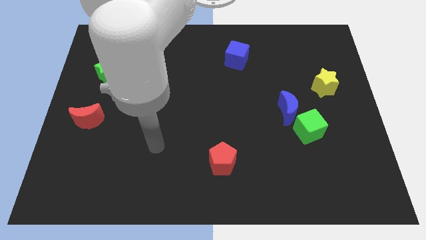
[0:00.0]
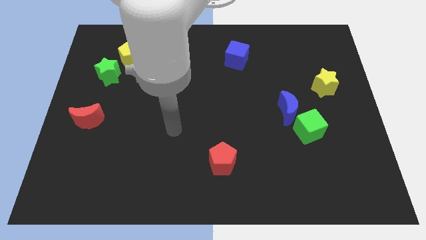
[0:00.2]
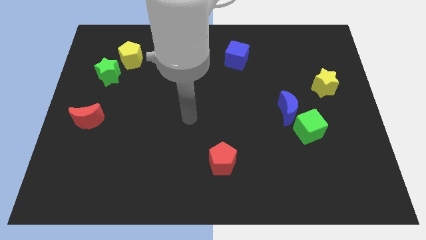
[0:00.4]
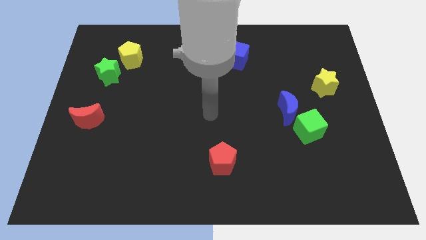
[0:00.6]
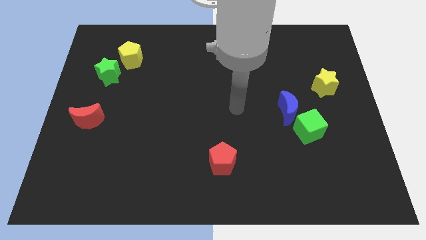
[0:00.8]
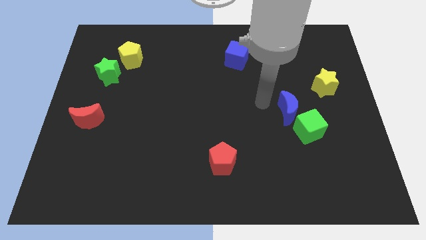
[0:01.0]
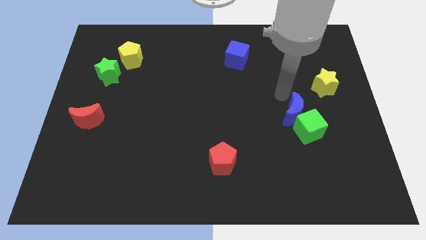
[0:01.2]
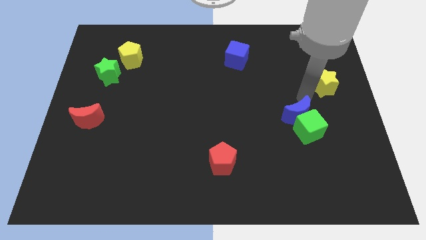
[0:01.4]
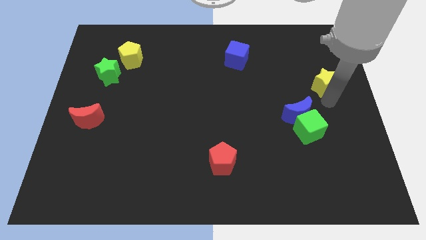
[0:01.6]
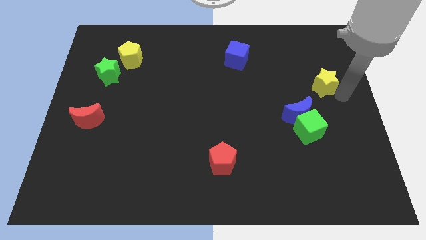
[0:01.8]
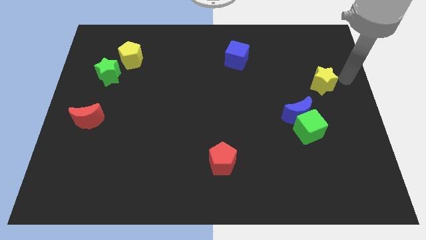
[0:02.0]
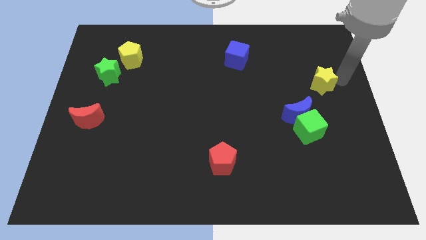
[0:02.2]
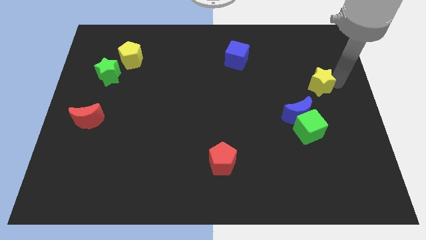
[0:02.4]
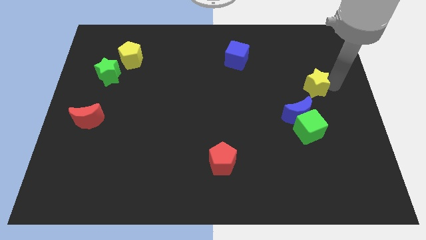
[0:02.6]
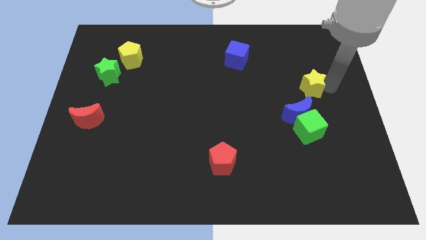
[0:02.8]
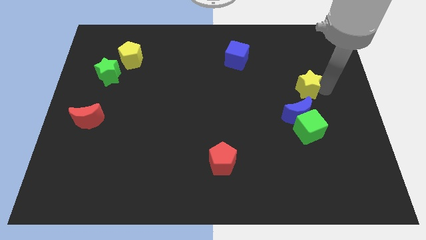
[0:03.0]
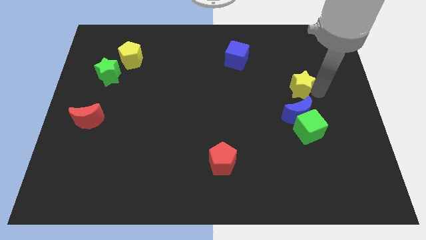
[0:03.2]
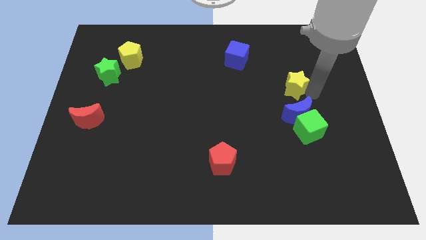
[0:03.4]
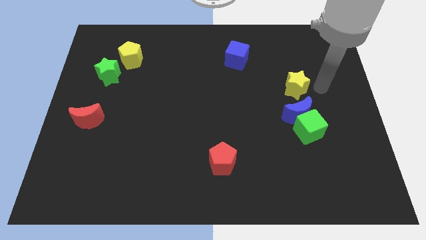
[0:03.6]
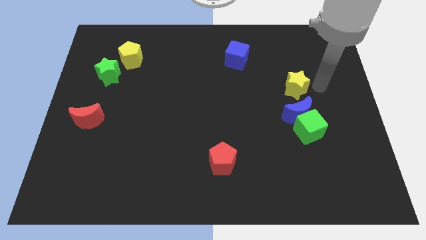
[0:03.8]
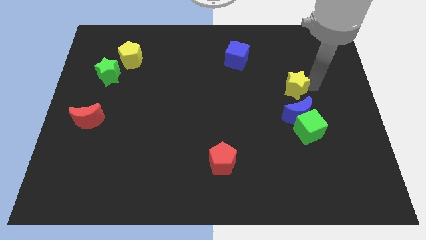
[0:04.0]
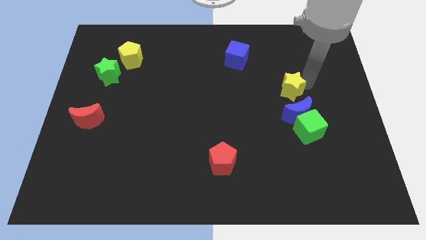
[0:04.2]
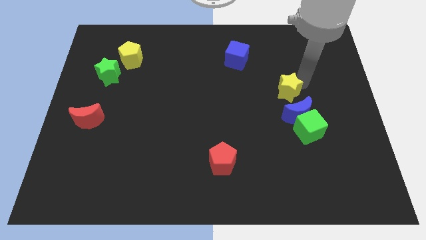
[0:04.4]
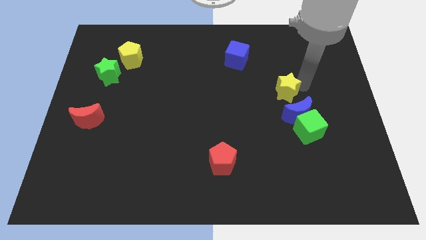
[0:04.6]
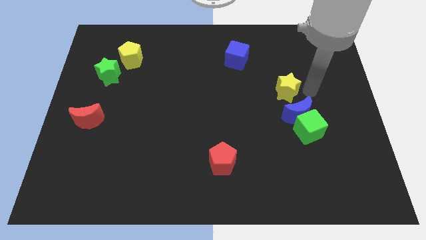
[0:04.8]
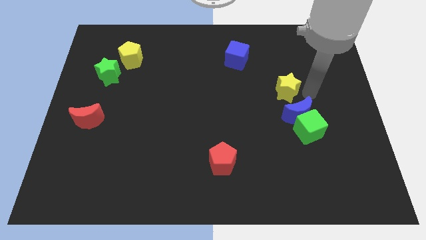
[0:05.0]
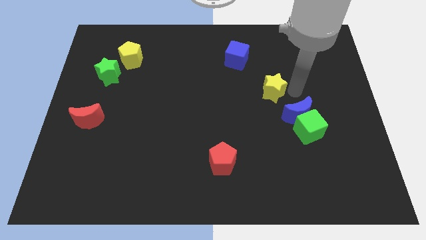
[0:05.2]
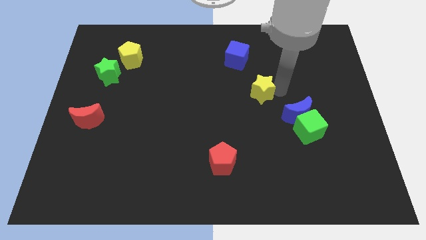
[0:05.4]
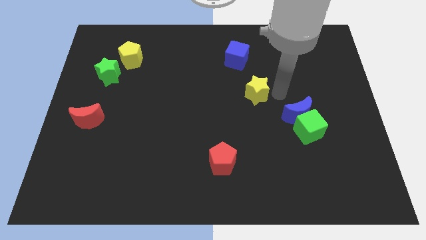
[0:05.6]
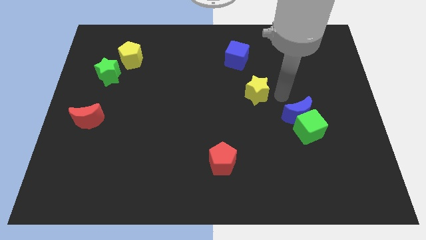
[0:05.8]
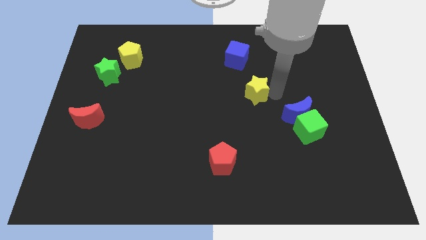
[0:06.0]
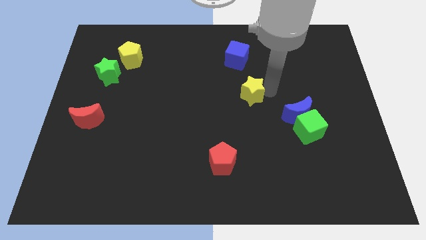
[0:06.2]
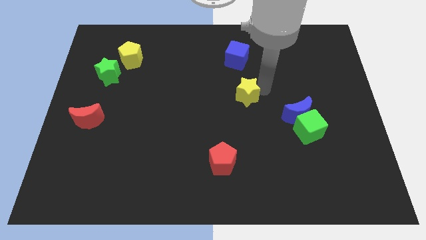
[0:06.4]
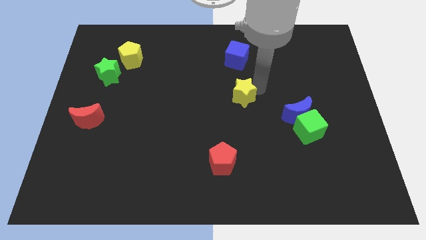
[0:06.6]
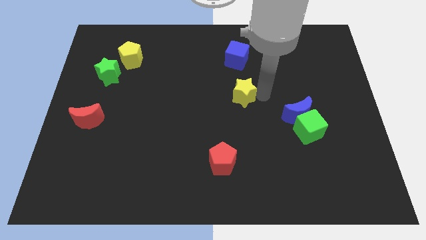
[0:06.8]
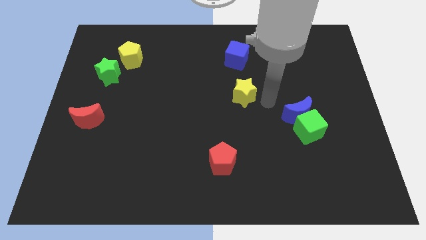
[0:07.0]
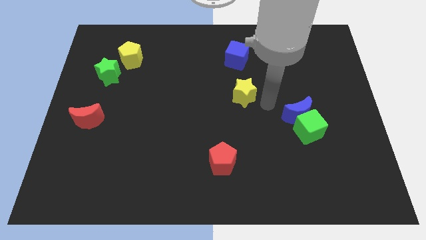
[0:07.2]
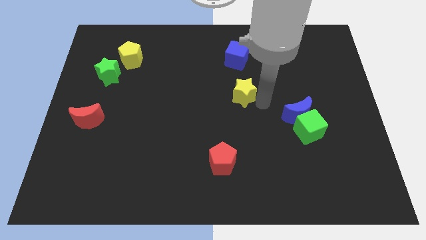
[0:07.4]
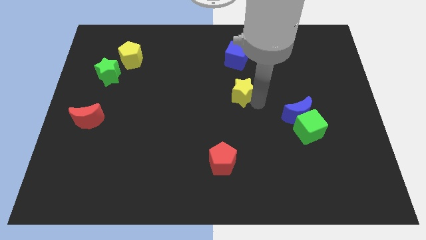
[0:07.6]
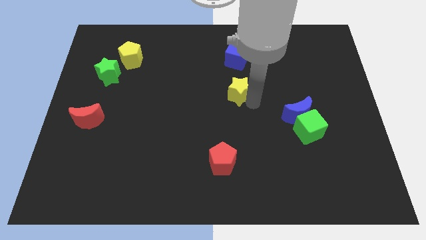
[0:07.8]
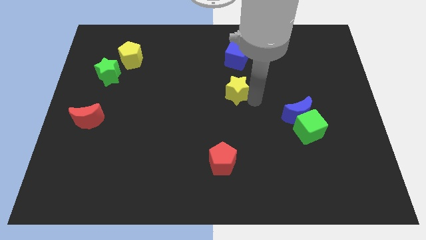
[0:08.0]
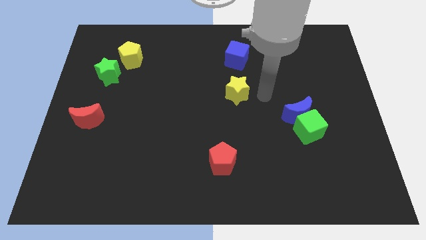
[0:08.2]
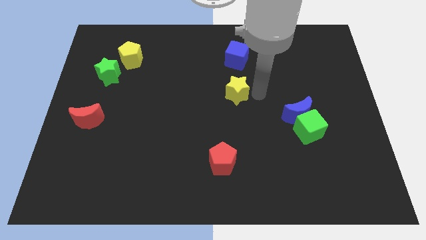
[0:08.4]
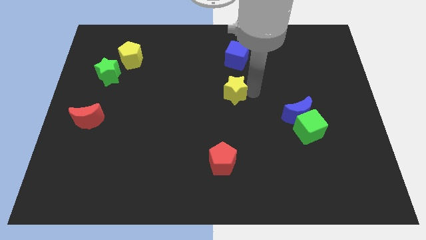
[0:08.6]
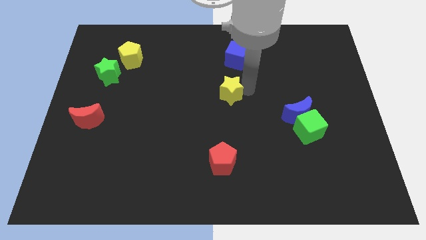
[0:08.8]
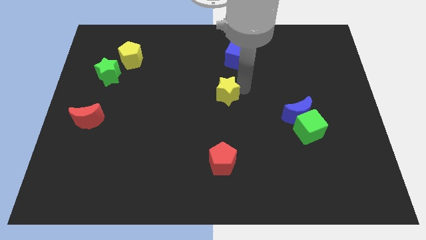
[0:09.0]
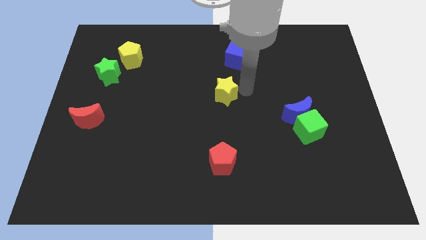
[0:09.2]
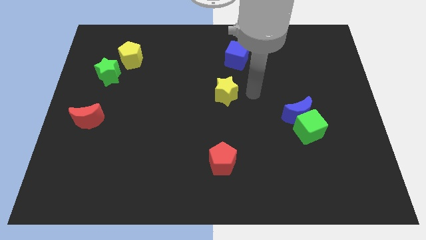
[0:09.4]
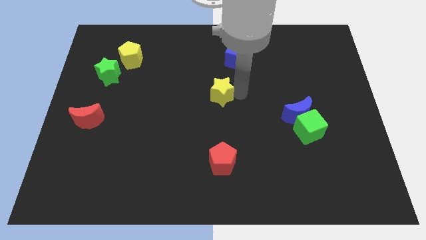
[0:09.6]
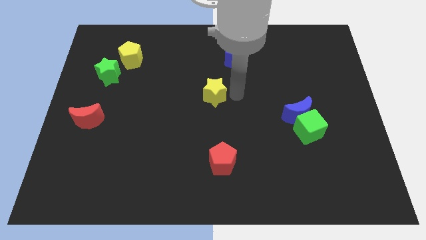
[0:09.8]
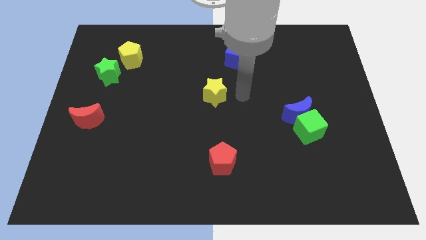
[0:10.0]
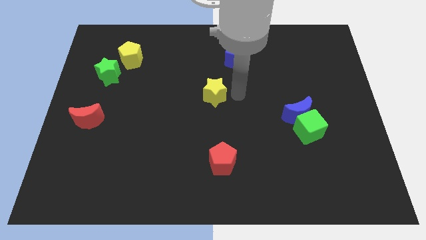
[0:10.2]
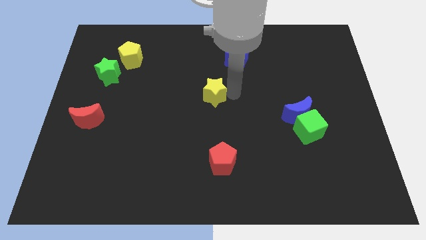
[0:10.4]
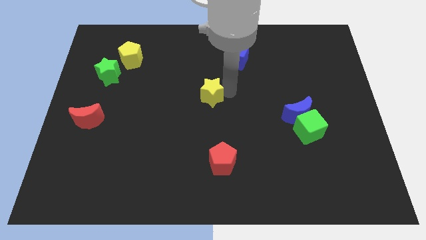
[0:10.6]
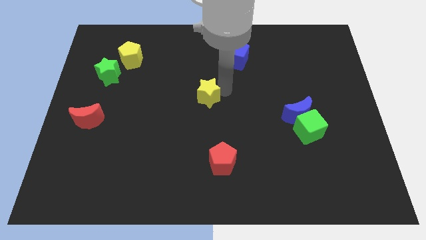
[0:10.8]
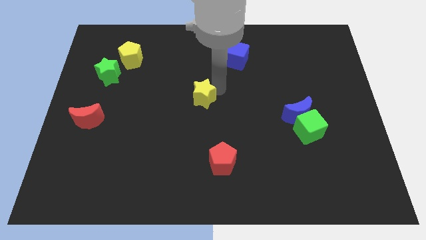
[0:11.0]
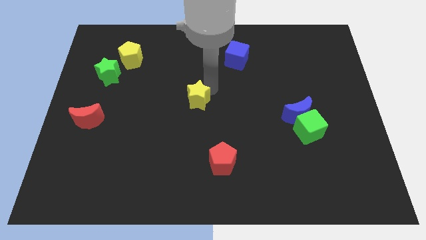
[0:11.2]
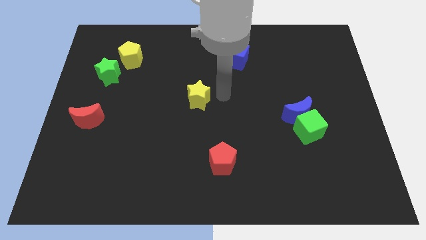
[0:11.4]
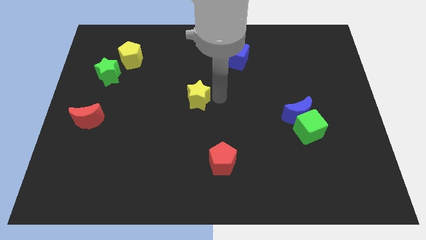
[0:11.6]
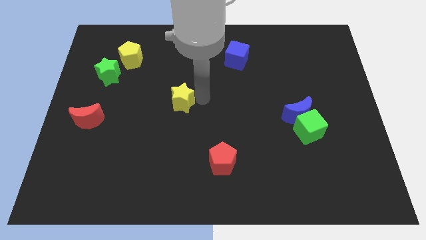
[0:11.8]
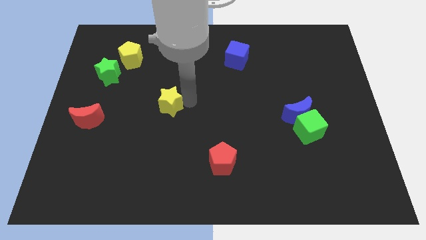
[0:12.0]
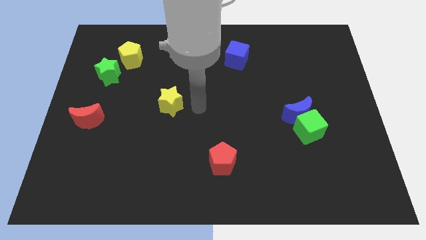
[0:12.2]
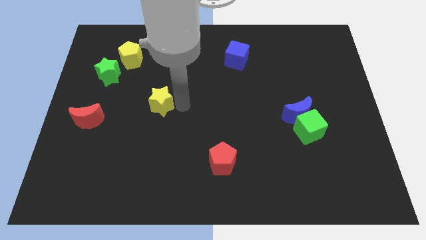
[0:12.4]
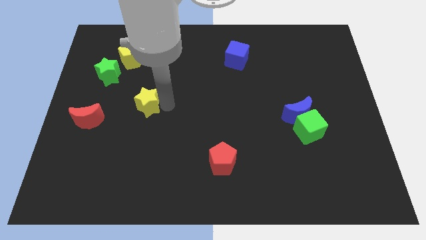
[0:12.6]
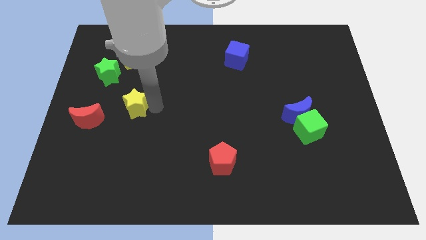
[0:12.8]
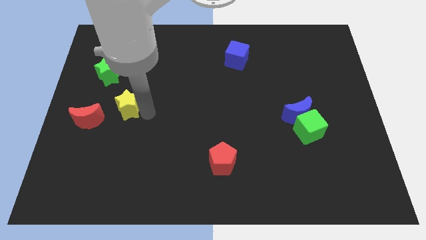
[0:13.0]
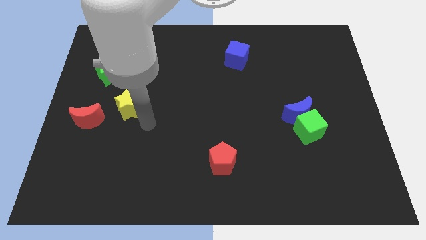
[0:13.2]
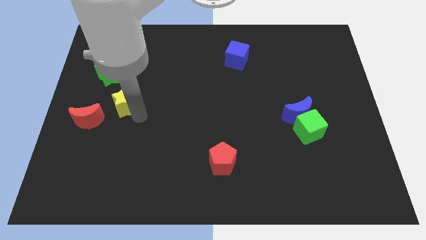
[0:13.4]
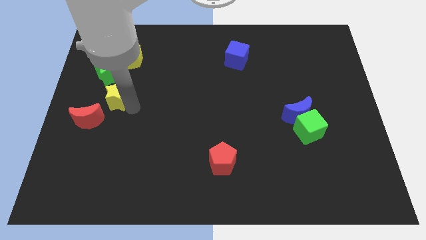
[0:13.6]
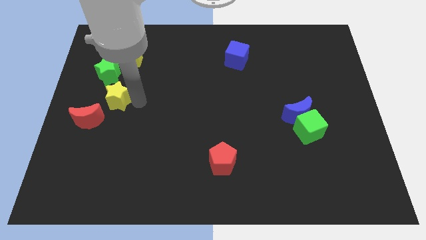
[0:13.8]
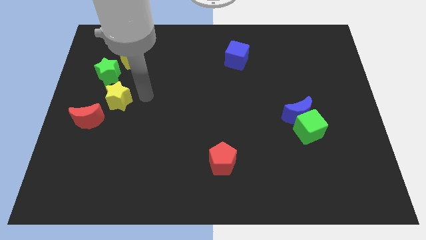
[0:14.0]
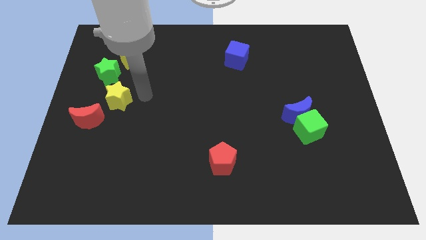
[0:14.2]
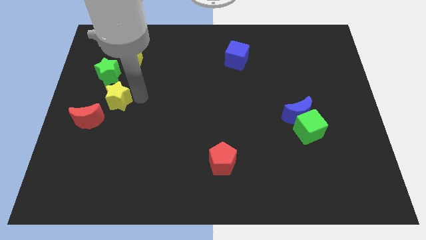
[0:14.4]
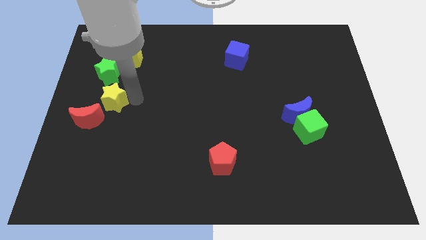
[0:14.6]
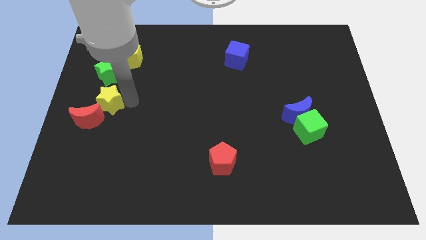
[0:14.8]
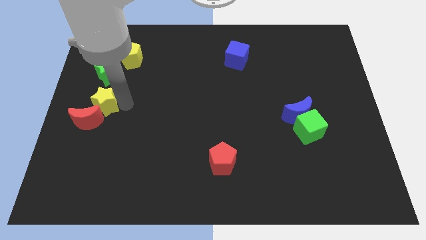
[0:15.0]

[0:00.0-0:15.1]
slide the yellow star to the left side of the board
